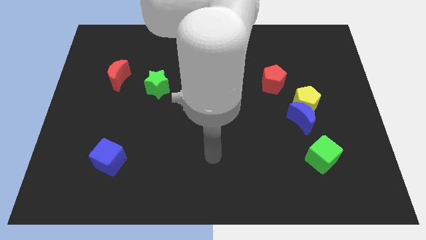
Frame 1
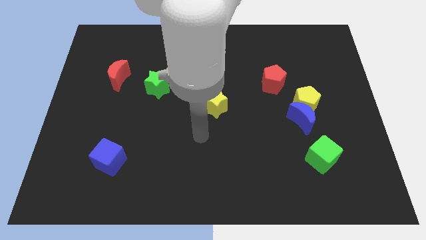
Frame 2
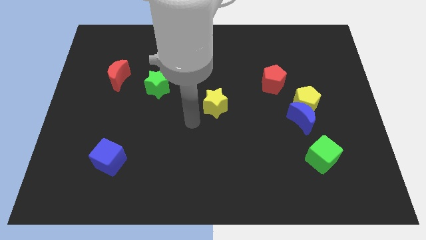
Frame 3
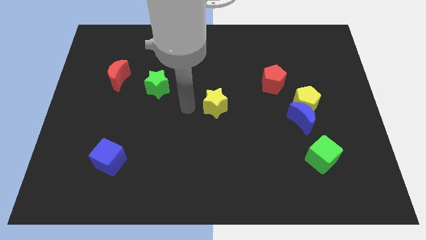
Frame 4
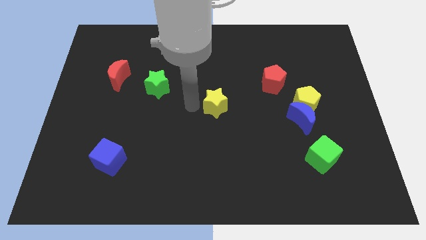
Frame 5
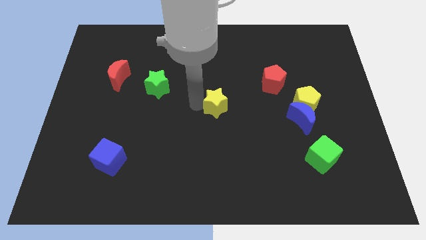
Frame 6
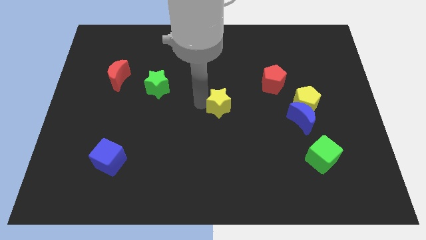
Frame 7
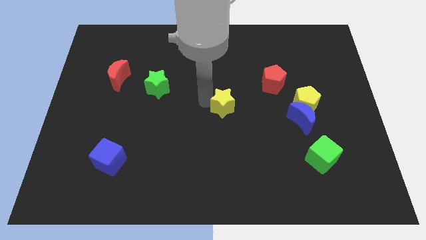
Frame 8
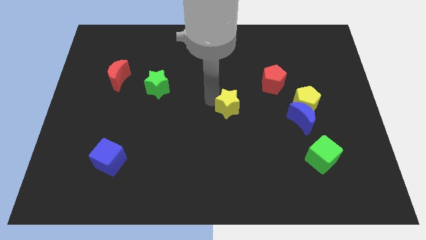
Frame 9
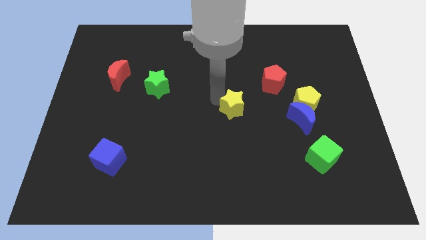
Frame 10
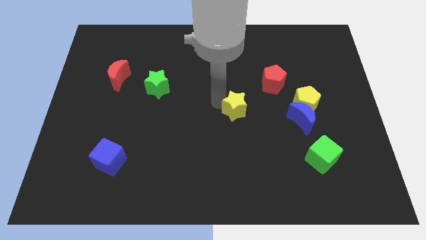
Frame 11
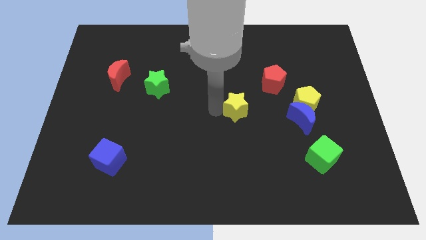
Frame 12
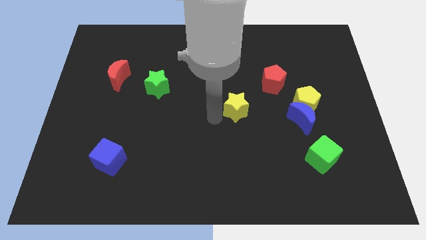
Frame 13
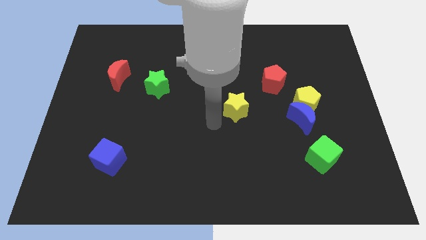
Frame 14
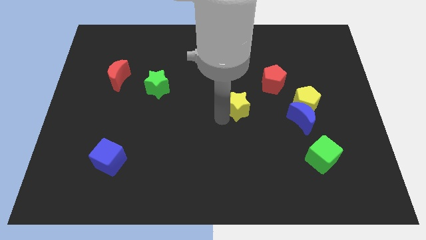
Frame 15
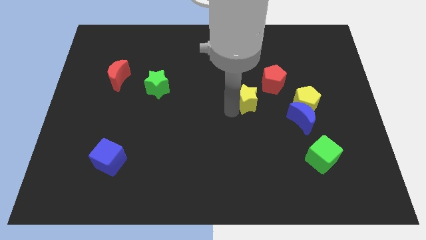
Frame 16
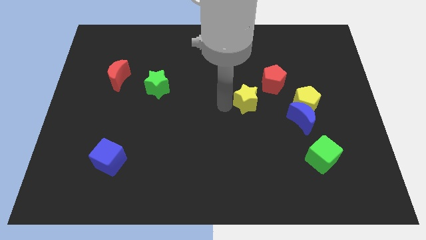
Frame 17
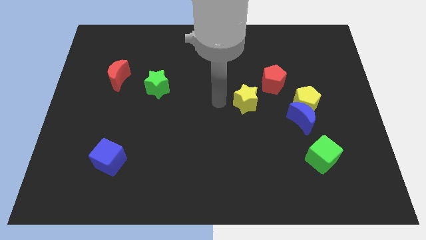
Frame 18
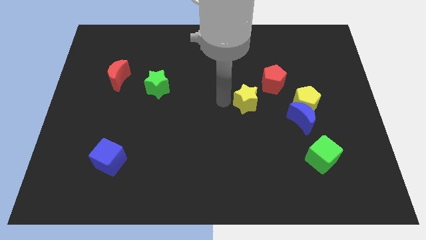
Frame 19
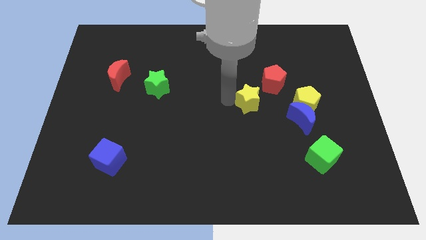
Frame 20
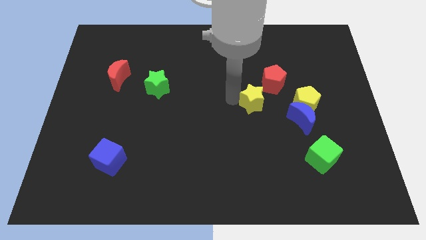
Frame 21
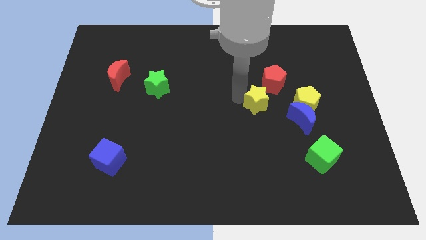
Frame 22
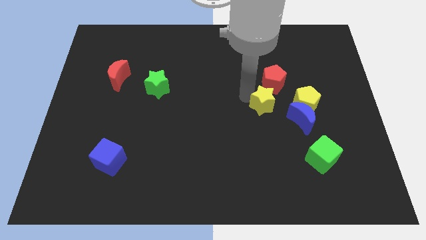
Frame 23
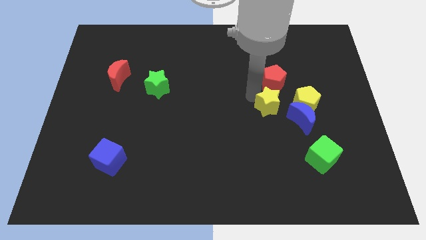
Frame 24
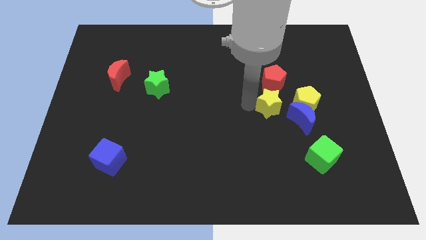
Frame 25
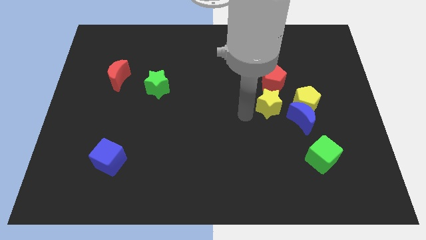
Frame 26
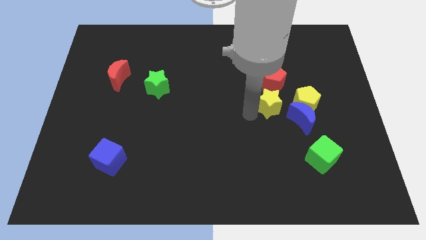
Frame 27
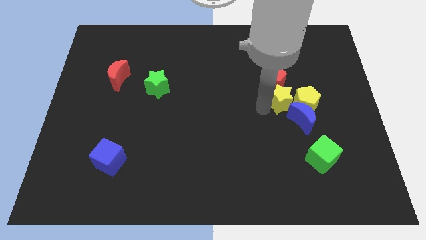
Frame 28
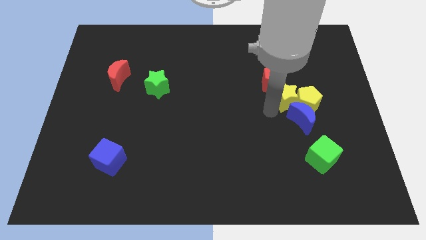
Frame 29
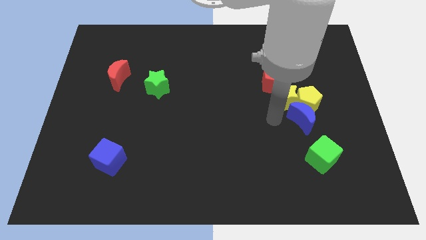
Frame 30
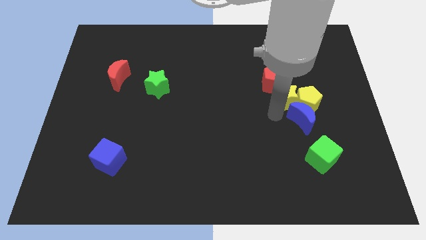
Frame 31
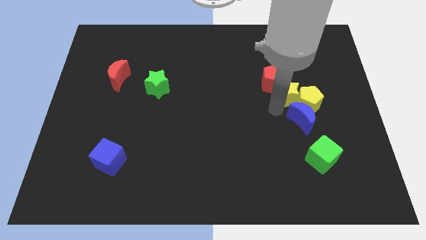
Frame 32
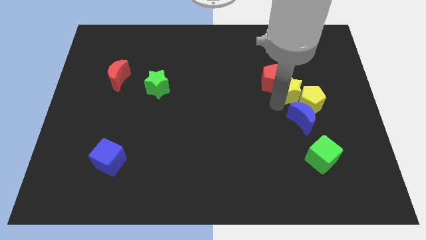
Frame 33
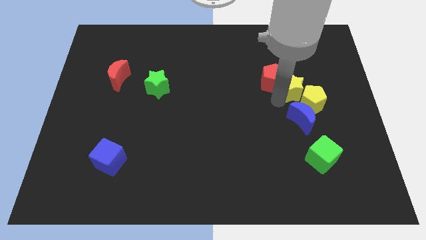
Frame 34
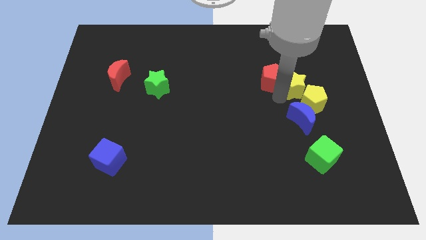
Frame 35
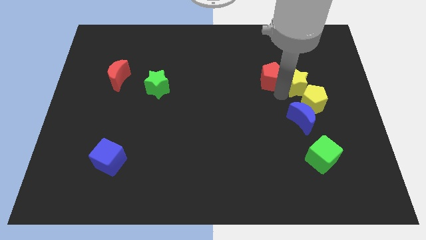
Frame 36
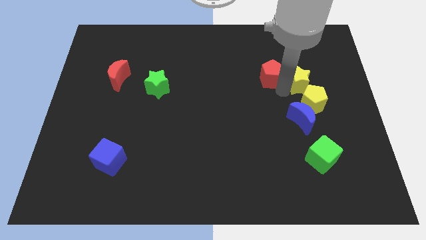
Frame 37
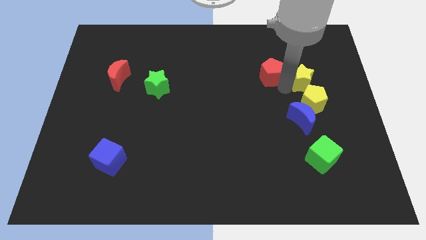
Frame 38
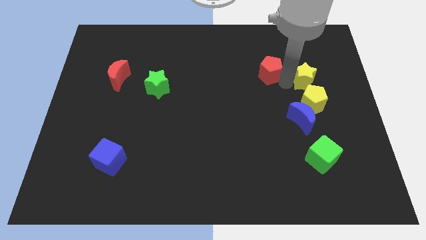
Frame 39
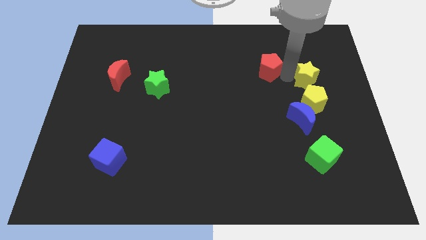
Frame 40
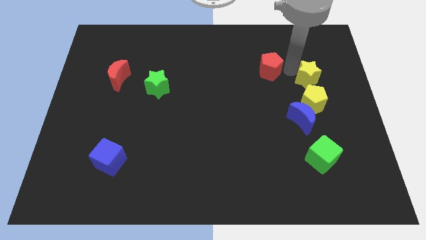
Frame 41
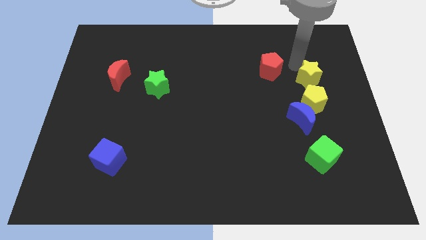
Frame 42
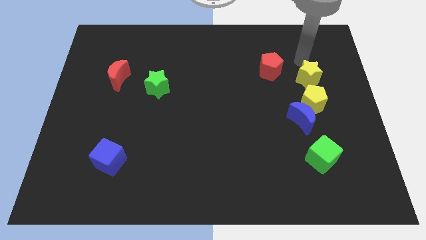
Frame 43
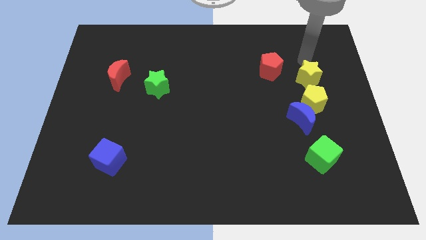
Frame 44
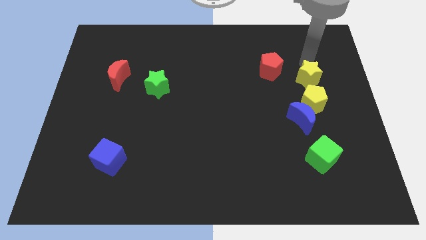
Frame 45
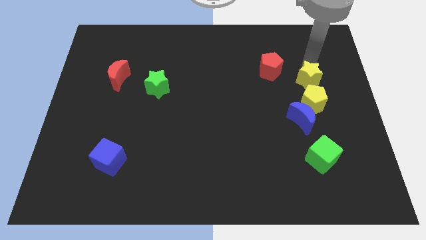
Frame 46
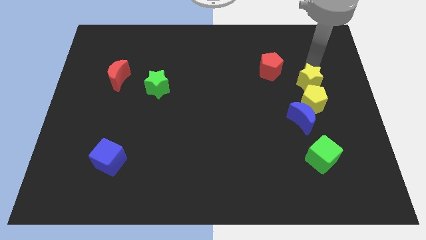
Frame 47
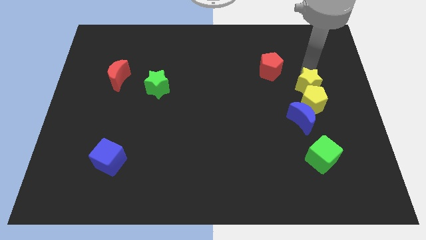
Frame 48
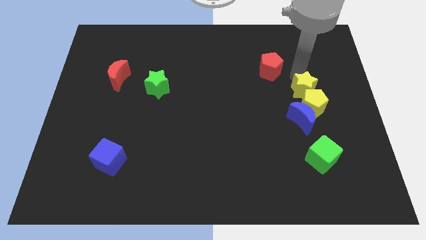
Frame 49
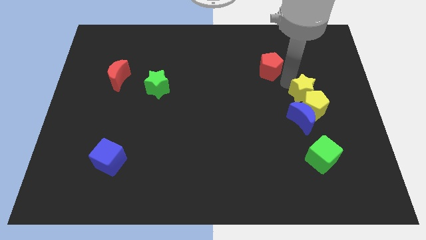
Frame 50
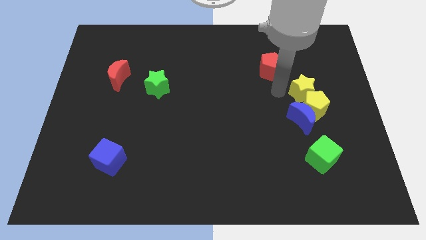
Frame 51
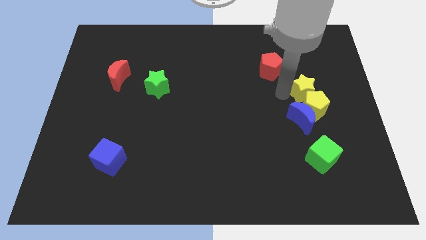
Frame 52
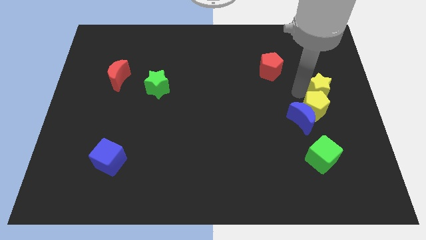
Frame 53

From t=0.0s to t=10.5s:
put the yellow star to the right side of the board

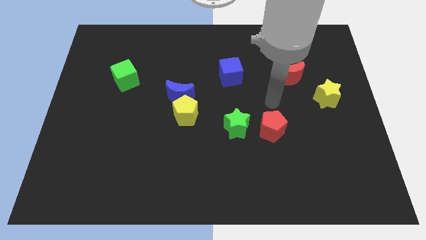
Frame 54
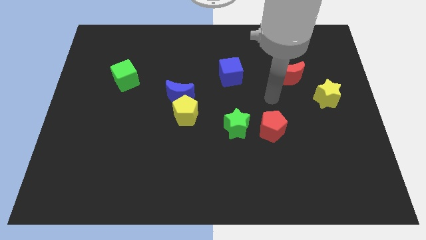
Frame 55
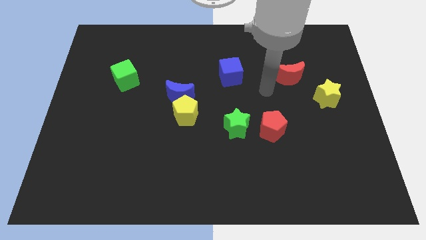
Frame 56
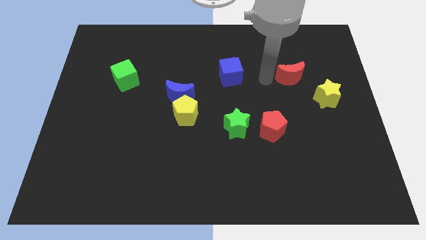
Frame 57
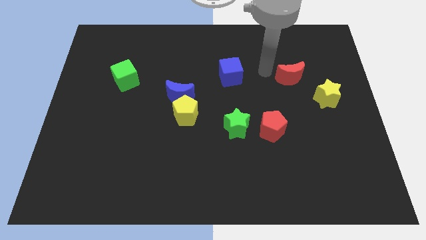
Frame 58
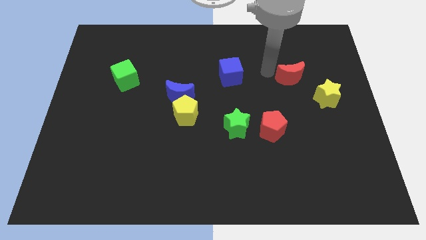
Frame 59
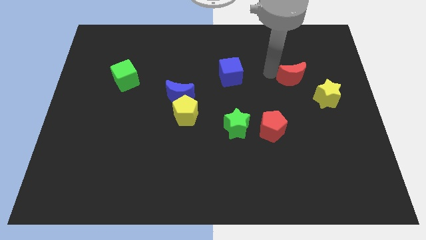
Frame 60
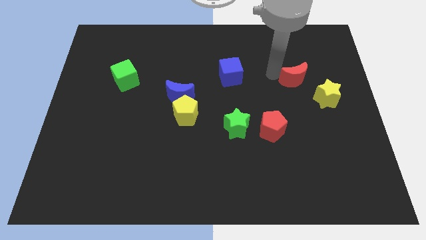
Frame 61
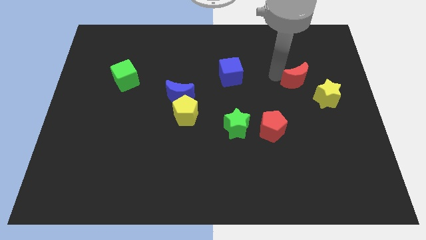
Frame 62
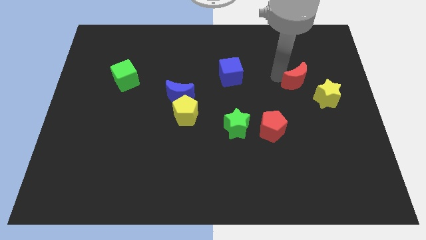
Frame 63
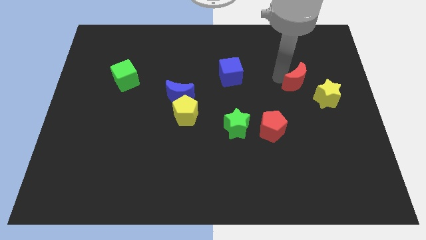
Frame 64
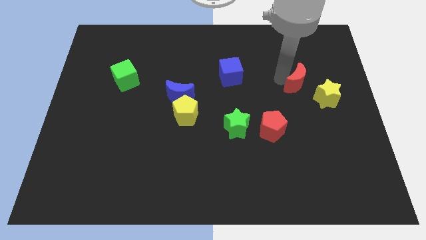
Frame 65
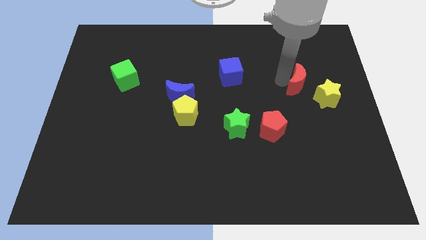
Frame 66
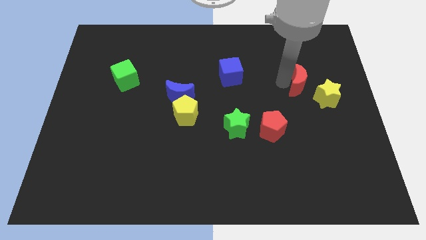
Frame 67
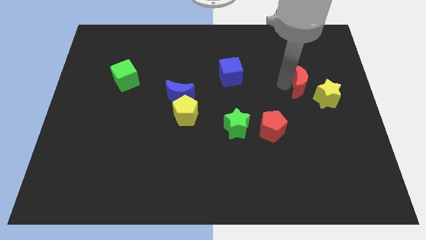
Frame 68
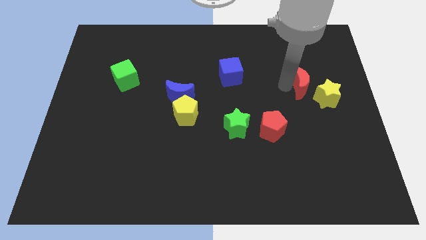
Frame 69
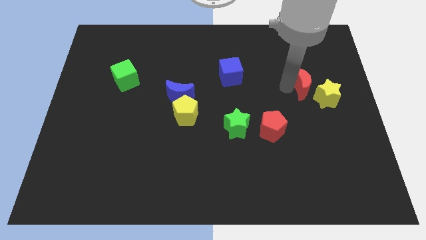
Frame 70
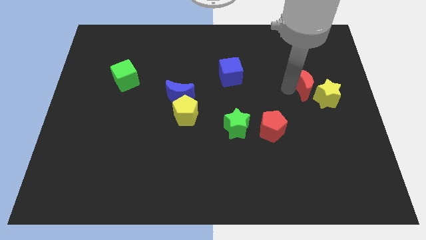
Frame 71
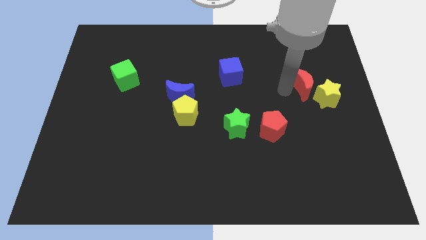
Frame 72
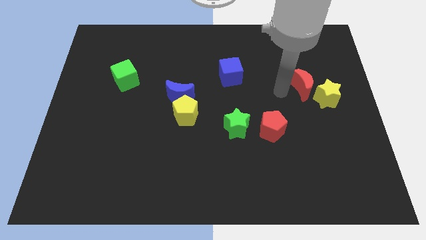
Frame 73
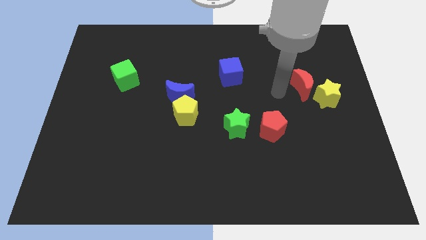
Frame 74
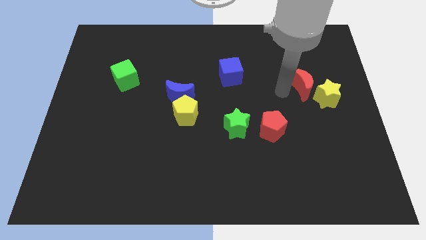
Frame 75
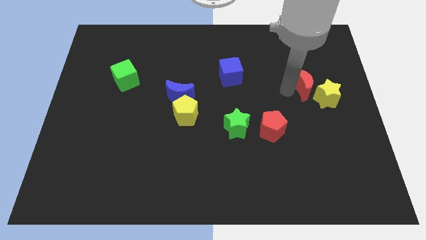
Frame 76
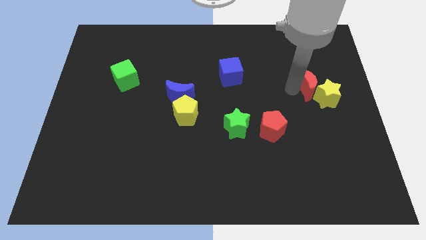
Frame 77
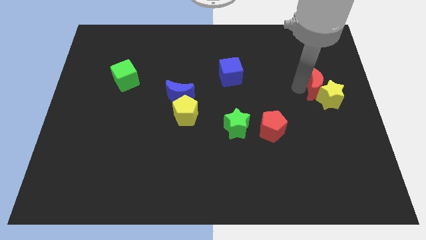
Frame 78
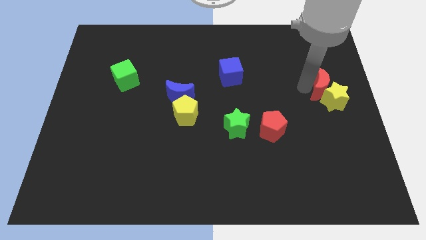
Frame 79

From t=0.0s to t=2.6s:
move the red moon to the right side of the board
